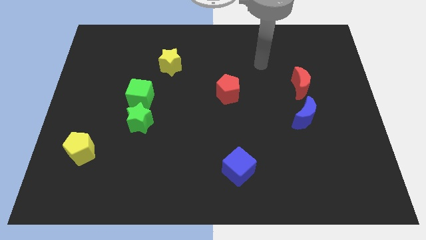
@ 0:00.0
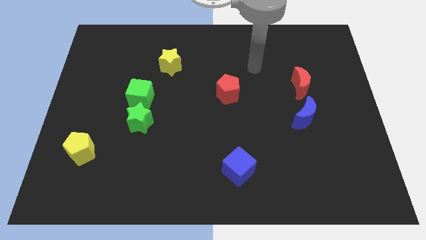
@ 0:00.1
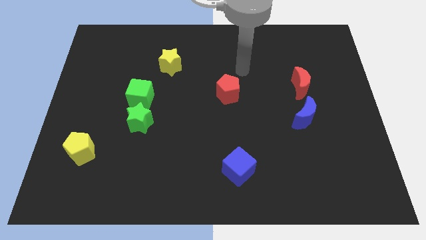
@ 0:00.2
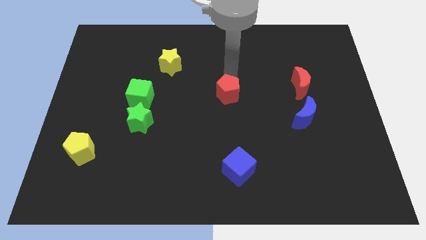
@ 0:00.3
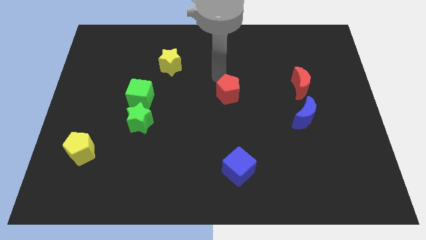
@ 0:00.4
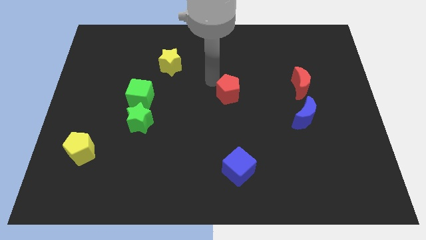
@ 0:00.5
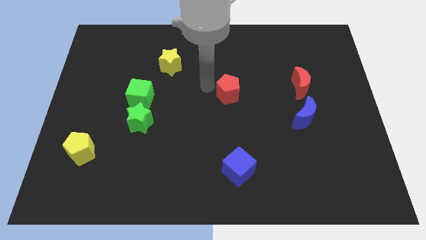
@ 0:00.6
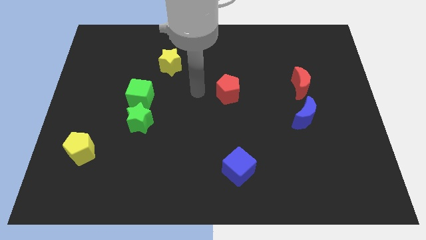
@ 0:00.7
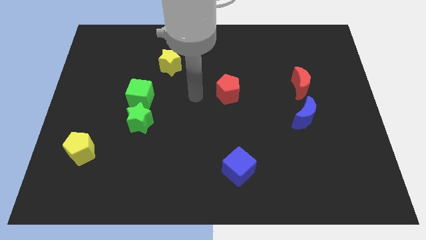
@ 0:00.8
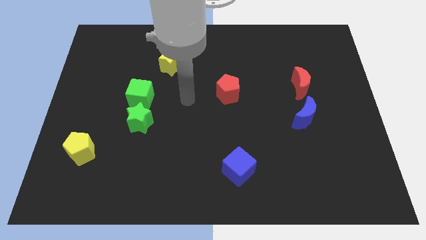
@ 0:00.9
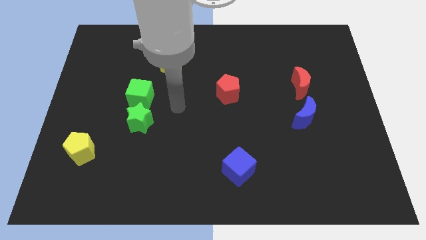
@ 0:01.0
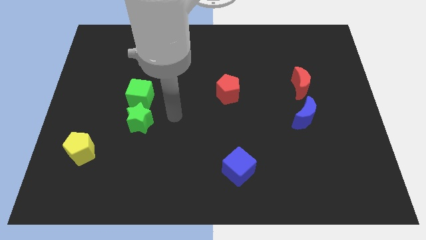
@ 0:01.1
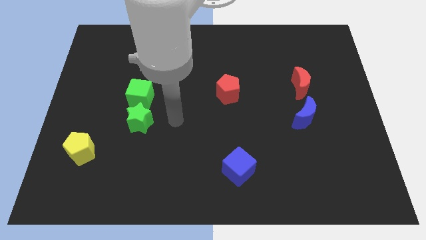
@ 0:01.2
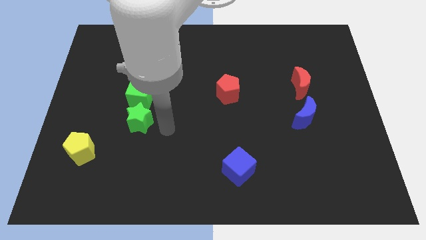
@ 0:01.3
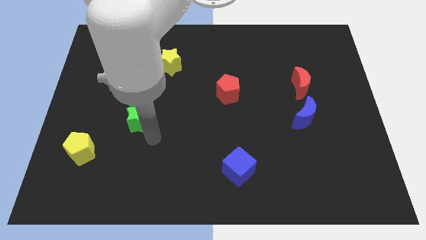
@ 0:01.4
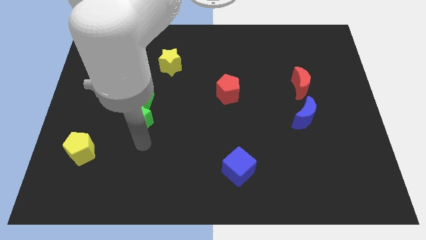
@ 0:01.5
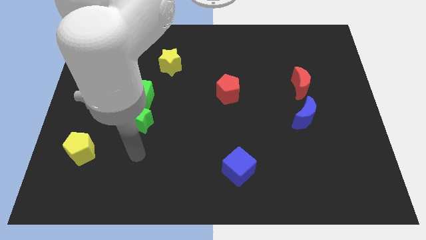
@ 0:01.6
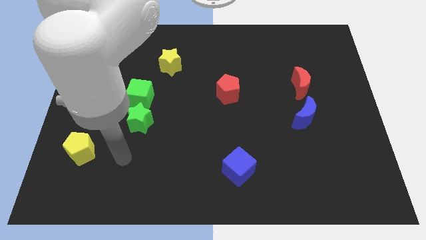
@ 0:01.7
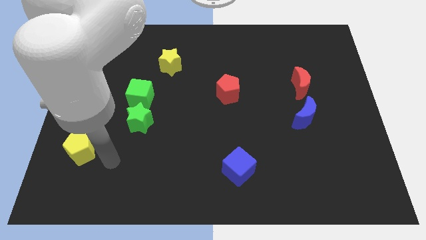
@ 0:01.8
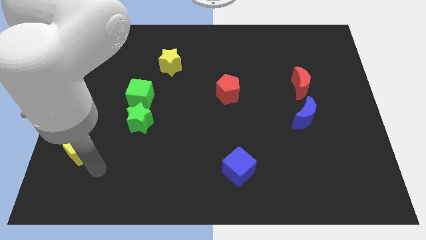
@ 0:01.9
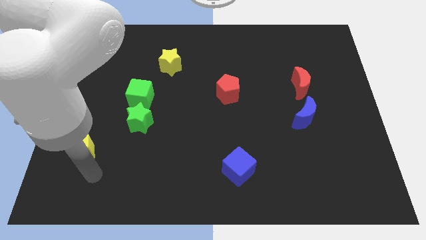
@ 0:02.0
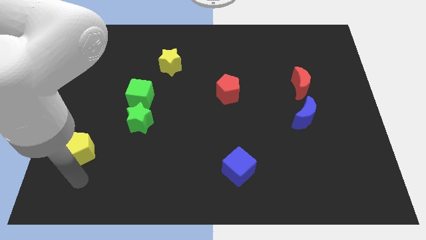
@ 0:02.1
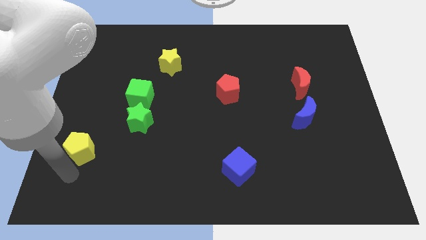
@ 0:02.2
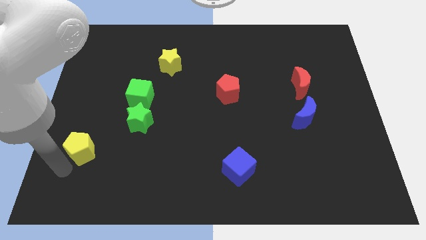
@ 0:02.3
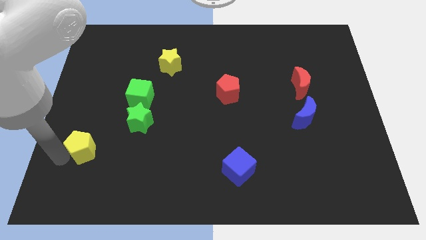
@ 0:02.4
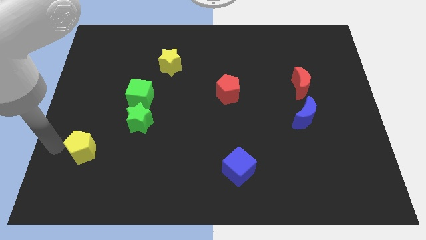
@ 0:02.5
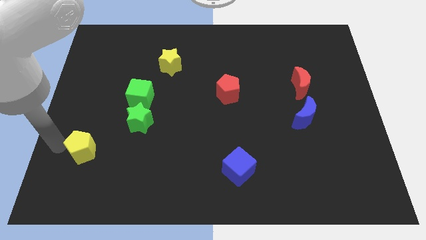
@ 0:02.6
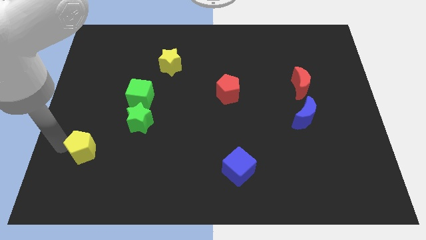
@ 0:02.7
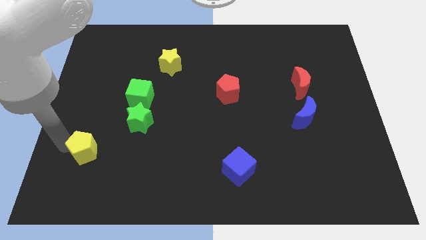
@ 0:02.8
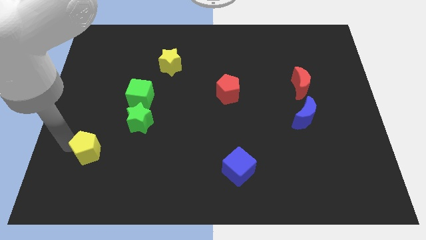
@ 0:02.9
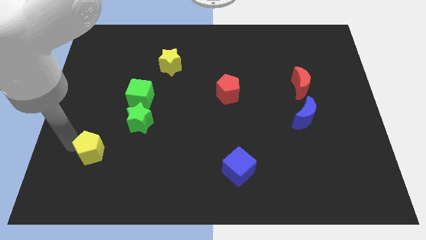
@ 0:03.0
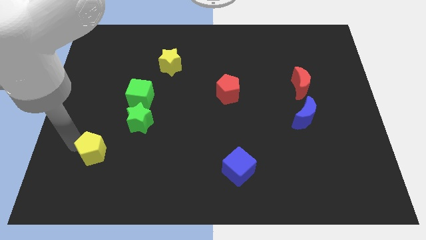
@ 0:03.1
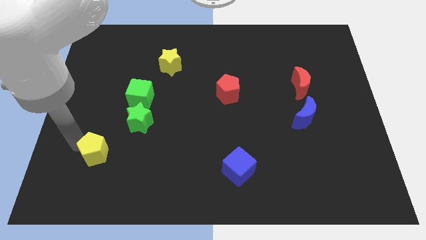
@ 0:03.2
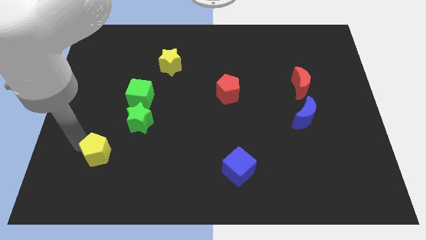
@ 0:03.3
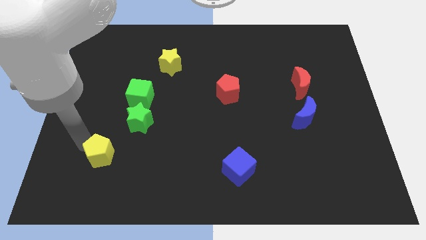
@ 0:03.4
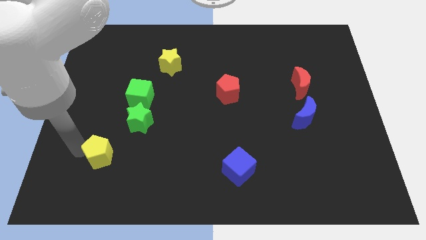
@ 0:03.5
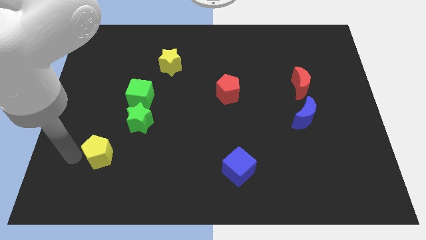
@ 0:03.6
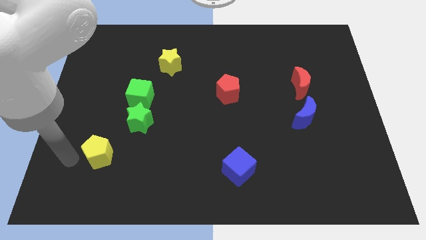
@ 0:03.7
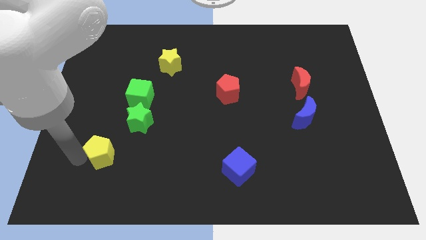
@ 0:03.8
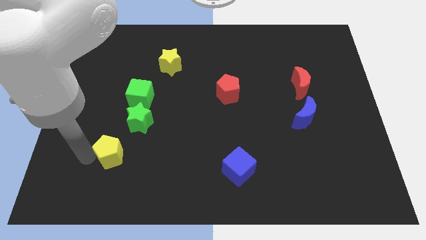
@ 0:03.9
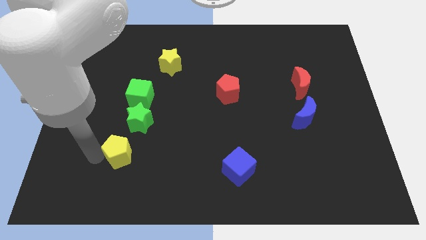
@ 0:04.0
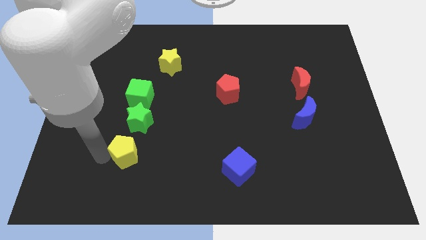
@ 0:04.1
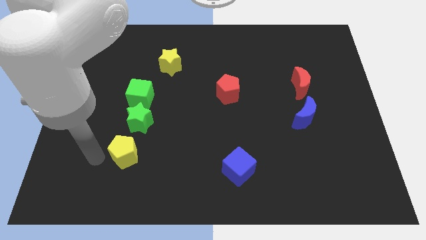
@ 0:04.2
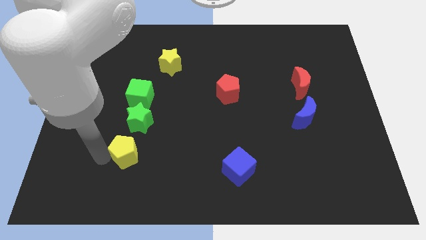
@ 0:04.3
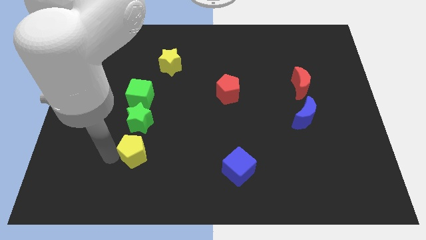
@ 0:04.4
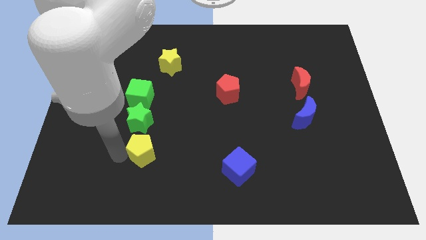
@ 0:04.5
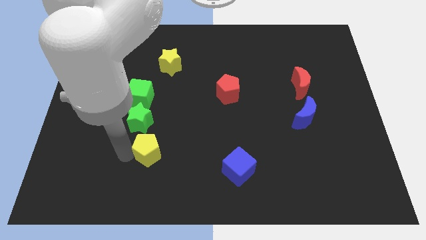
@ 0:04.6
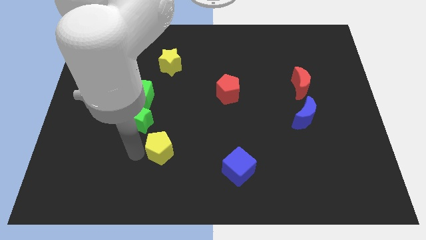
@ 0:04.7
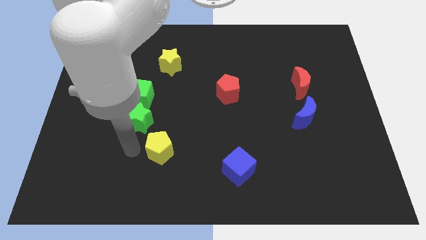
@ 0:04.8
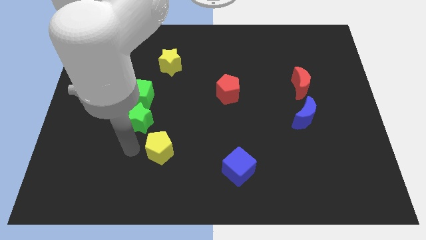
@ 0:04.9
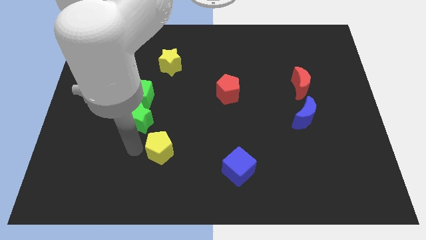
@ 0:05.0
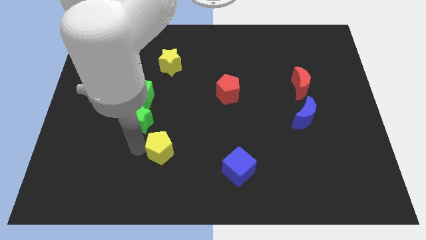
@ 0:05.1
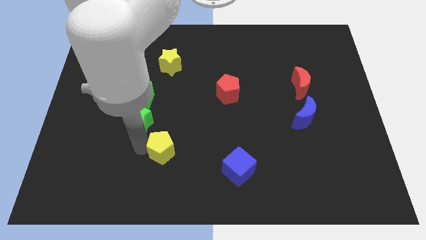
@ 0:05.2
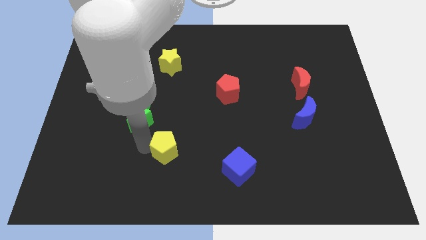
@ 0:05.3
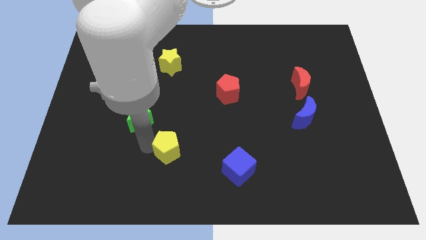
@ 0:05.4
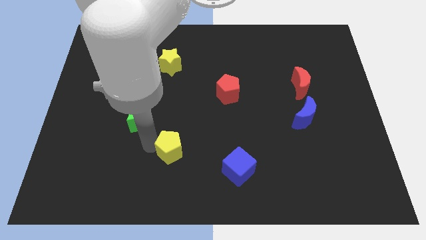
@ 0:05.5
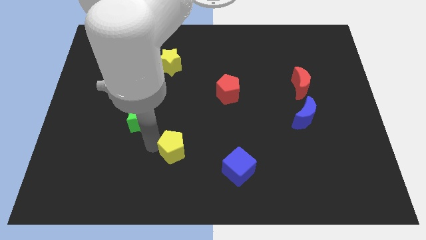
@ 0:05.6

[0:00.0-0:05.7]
slide the yellow pentagon to the right

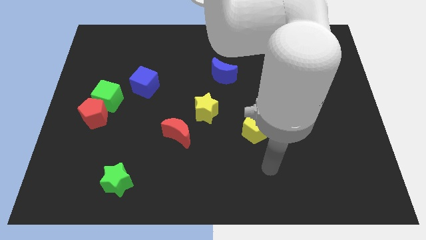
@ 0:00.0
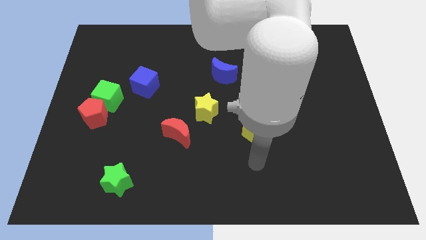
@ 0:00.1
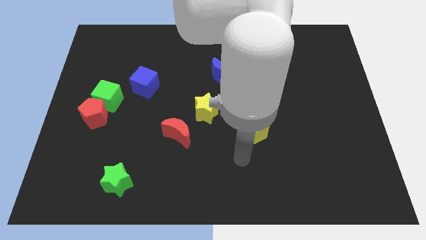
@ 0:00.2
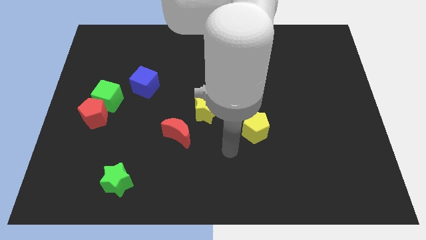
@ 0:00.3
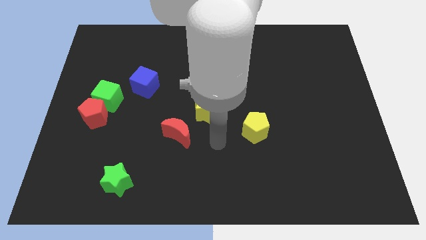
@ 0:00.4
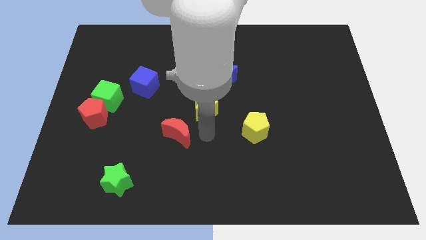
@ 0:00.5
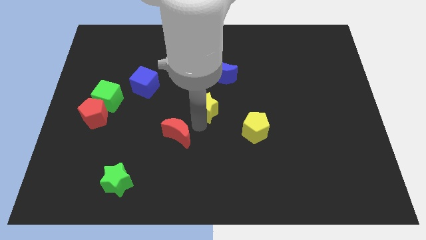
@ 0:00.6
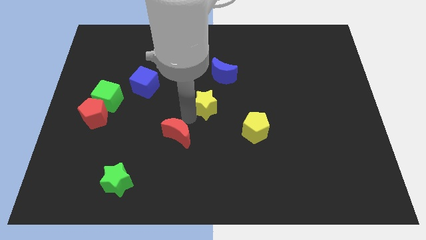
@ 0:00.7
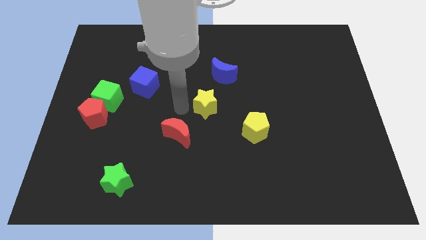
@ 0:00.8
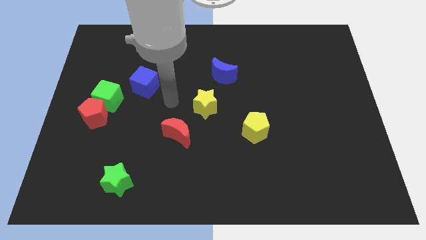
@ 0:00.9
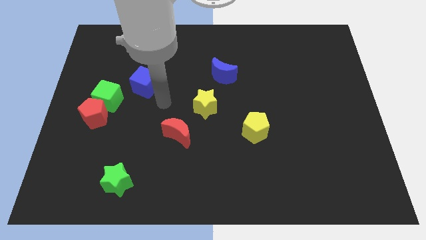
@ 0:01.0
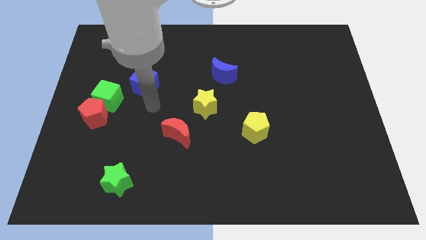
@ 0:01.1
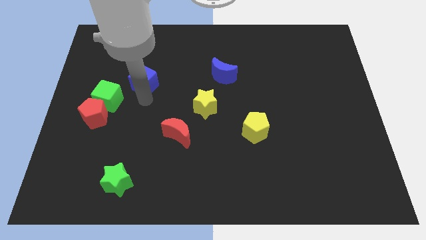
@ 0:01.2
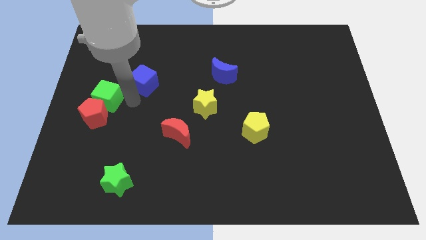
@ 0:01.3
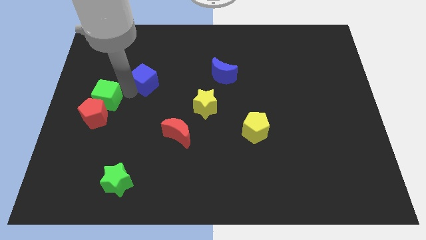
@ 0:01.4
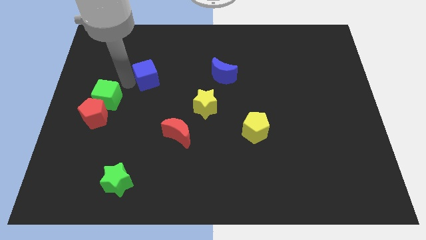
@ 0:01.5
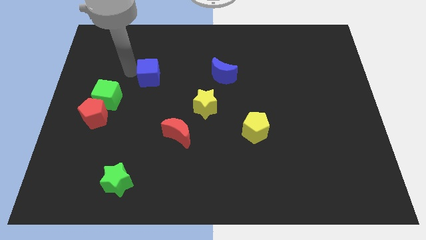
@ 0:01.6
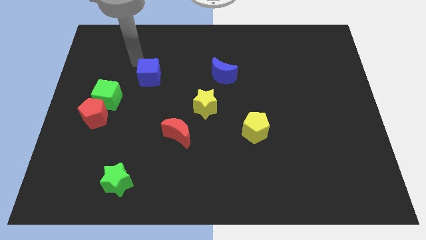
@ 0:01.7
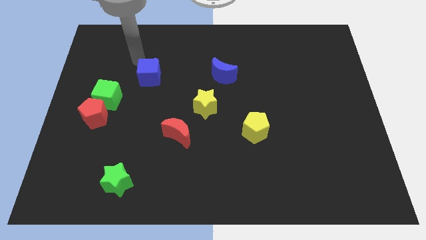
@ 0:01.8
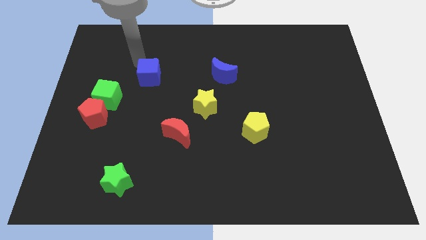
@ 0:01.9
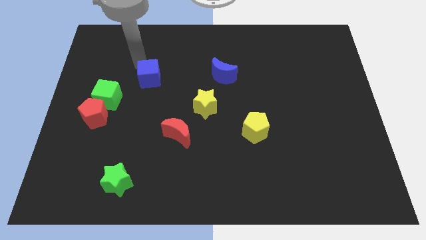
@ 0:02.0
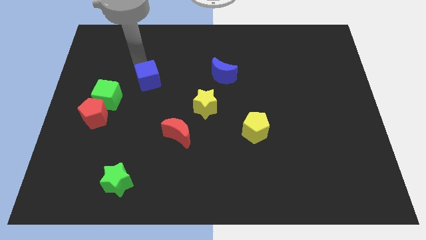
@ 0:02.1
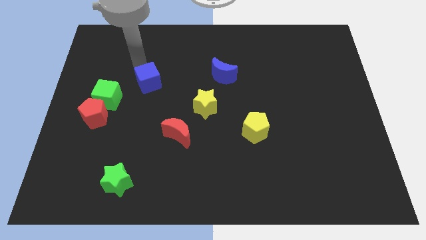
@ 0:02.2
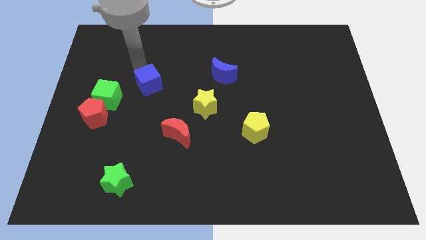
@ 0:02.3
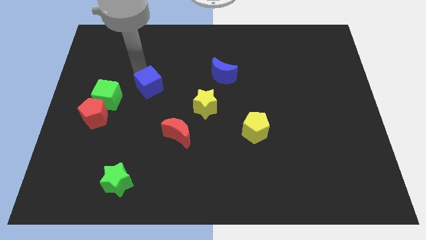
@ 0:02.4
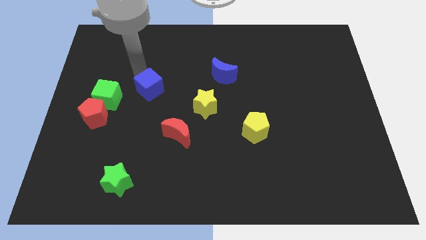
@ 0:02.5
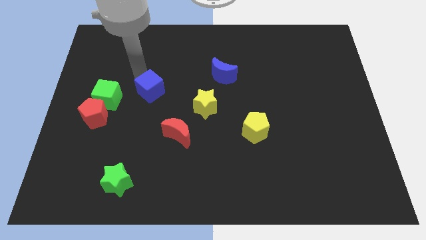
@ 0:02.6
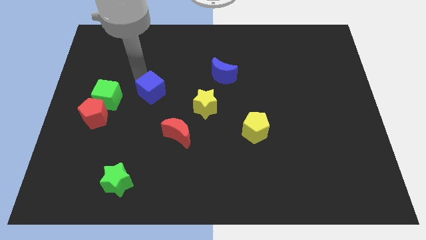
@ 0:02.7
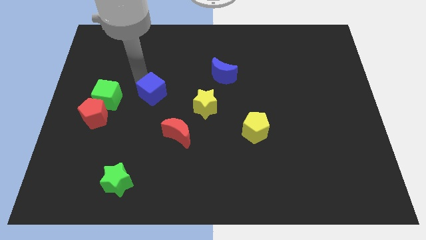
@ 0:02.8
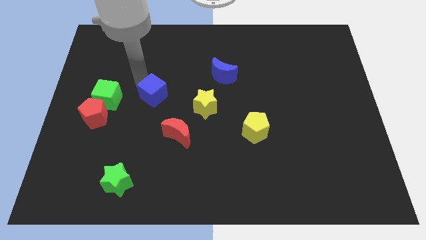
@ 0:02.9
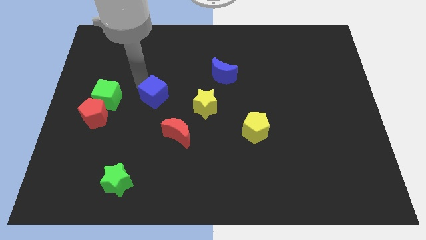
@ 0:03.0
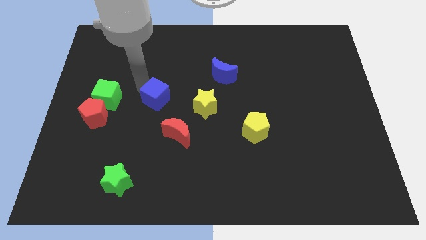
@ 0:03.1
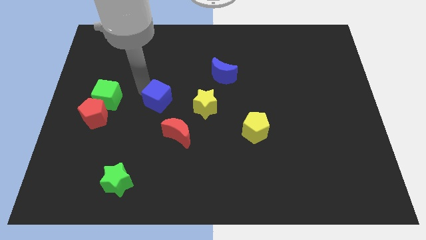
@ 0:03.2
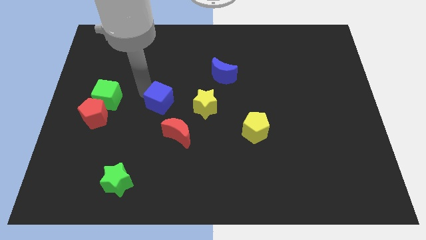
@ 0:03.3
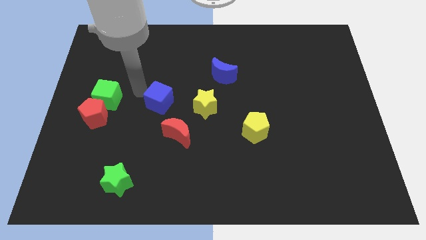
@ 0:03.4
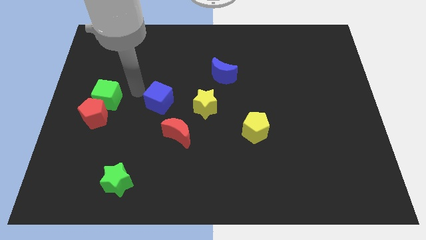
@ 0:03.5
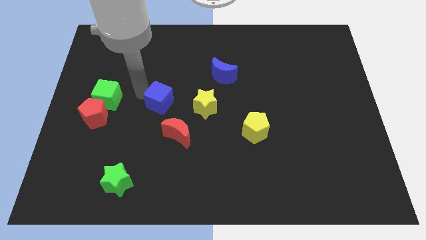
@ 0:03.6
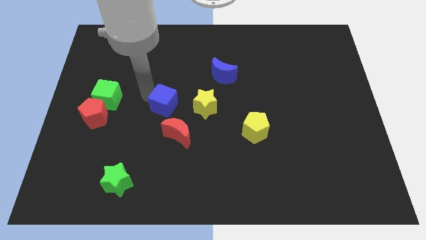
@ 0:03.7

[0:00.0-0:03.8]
push the blue cube somewhat downwards and right
